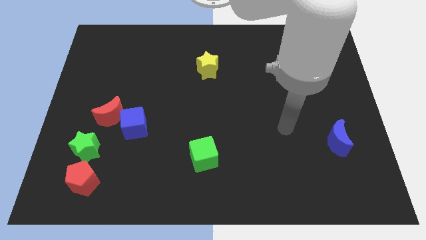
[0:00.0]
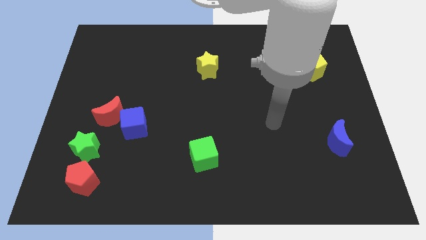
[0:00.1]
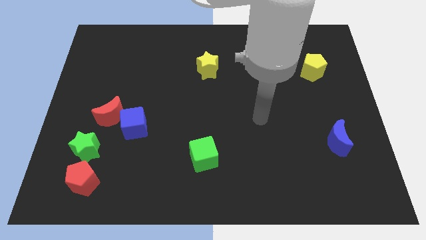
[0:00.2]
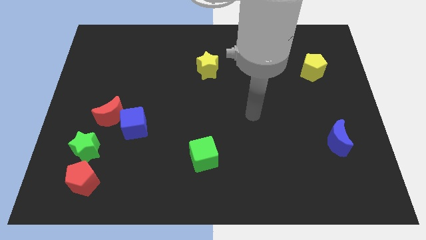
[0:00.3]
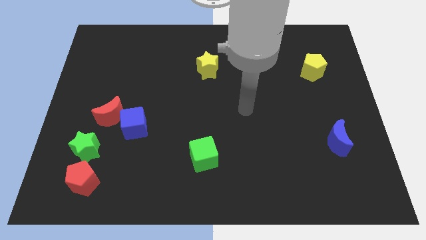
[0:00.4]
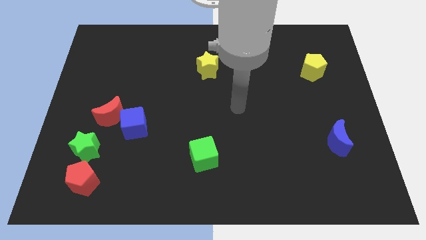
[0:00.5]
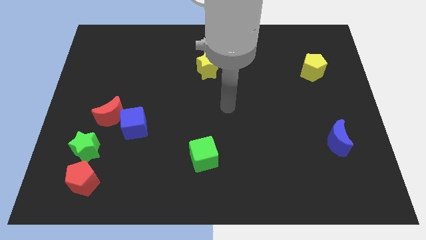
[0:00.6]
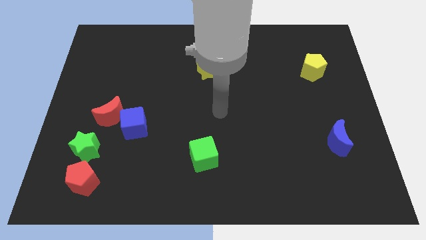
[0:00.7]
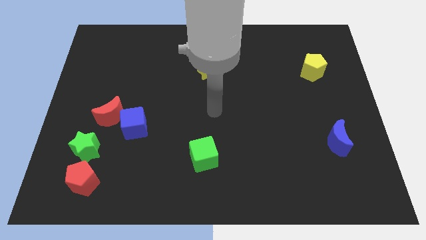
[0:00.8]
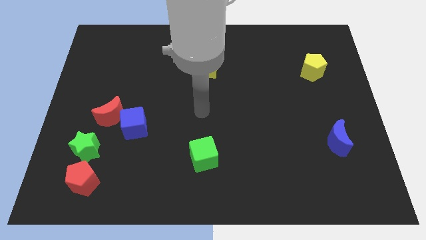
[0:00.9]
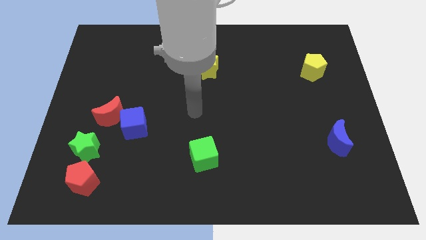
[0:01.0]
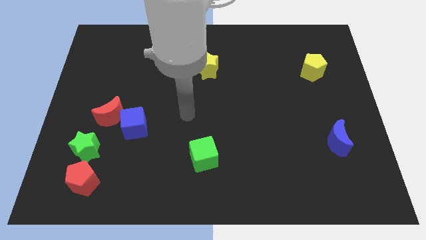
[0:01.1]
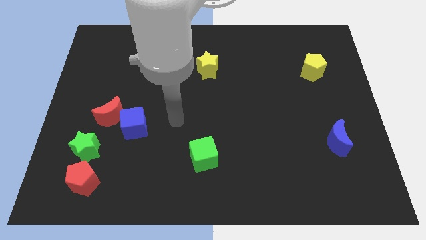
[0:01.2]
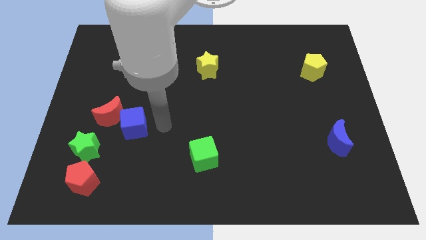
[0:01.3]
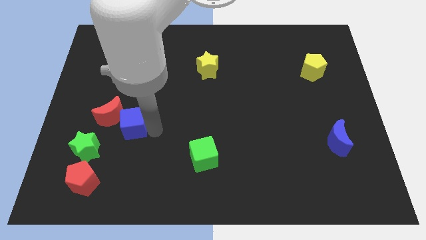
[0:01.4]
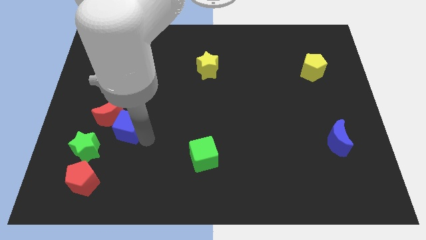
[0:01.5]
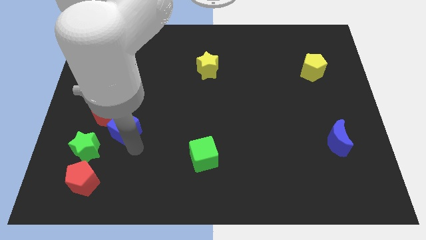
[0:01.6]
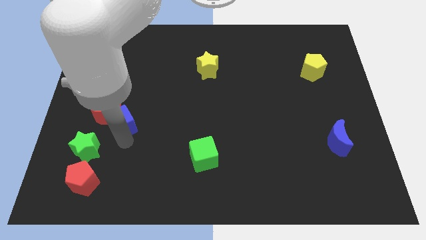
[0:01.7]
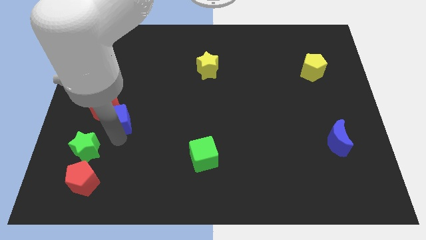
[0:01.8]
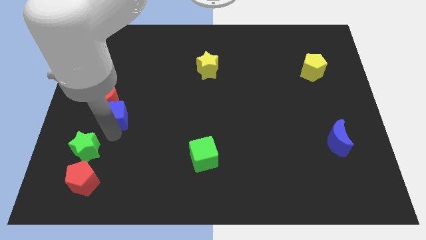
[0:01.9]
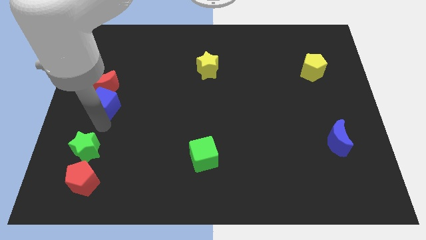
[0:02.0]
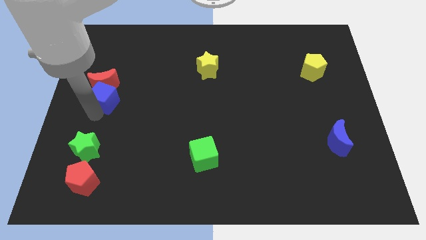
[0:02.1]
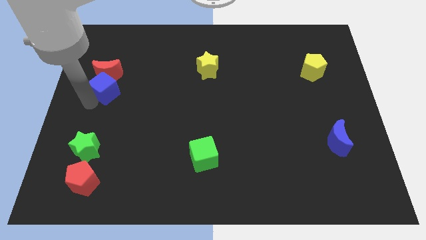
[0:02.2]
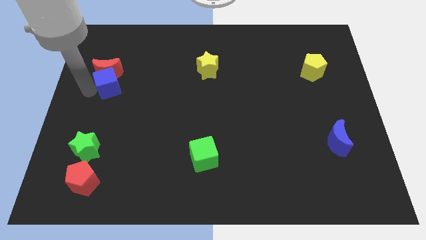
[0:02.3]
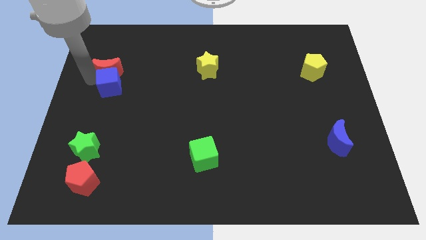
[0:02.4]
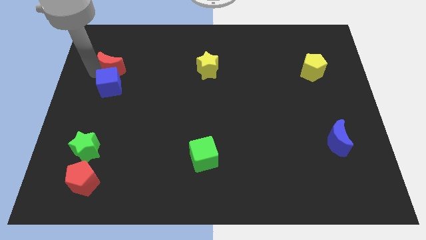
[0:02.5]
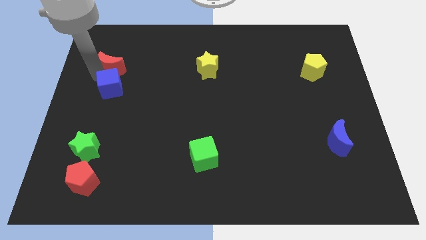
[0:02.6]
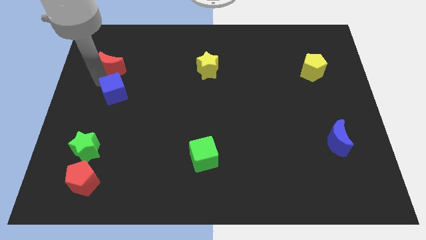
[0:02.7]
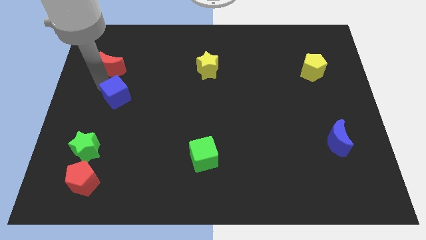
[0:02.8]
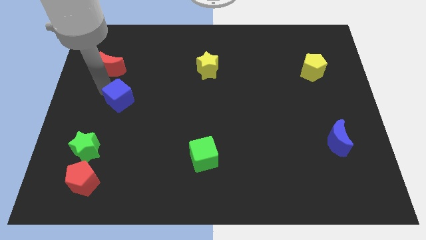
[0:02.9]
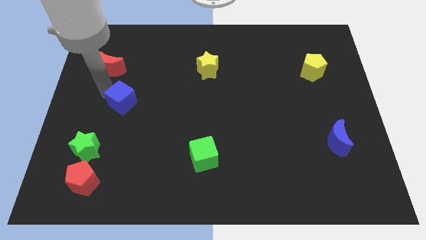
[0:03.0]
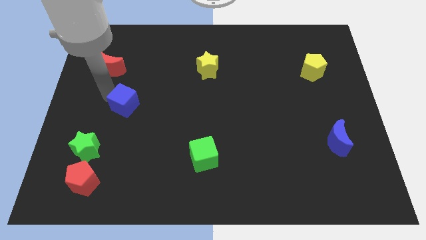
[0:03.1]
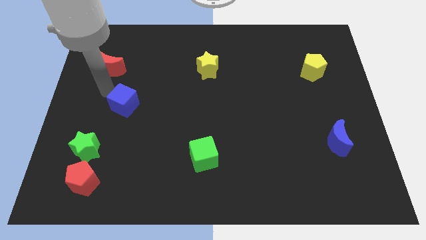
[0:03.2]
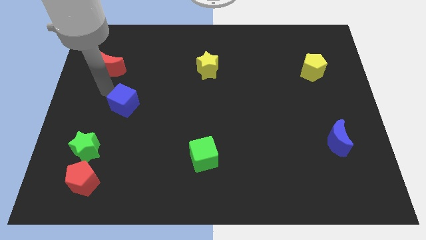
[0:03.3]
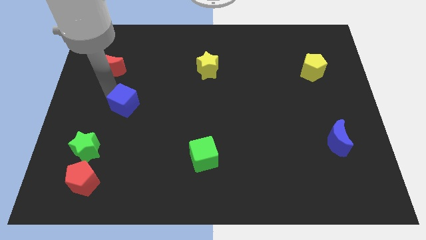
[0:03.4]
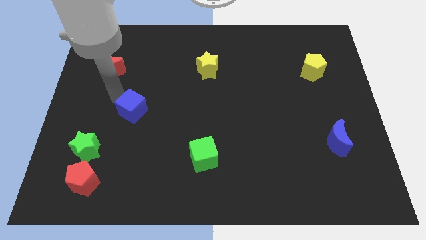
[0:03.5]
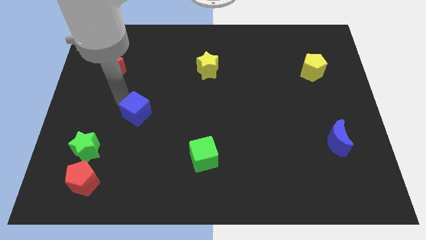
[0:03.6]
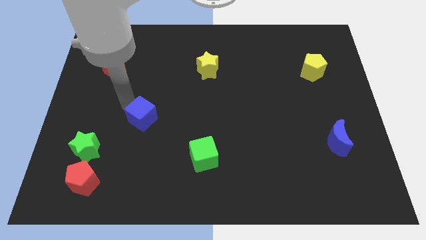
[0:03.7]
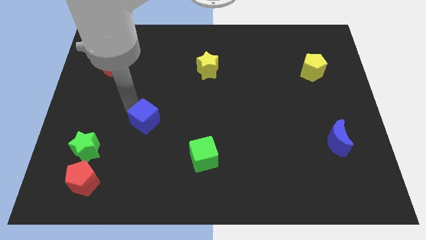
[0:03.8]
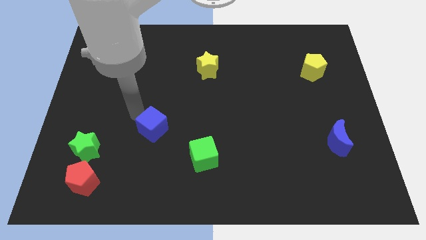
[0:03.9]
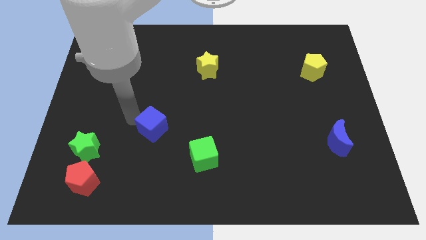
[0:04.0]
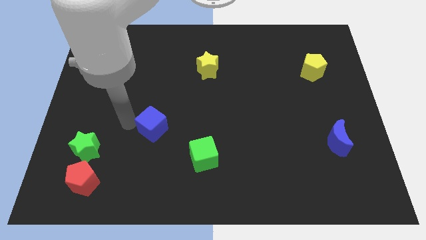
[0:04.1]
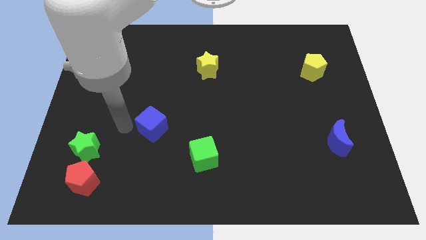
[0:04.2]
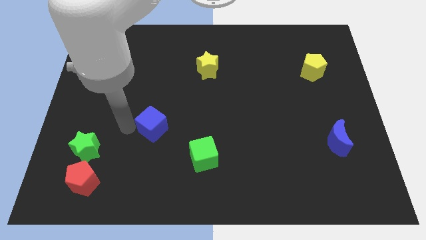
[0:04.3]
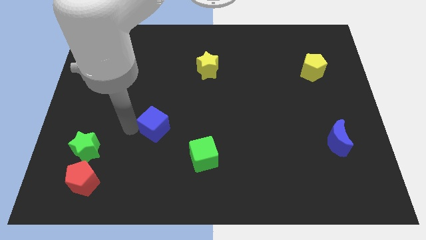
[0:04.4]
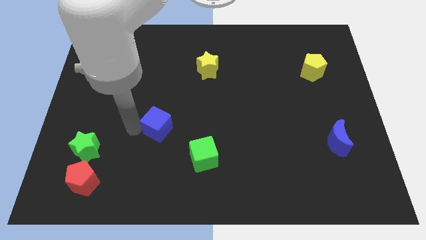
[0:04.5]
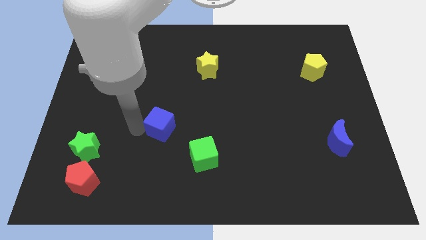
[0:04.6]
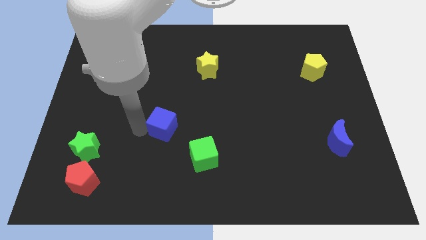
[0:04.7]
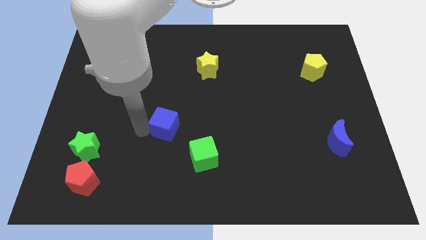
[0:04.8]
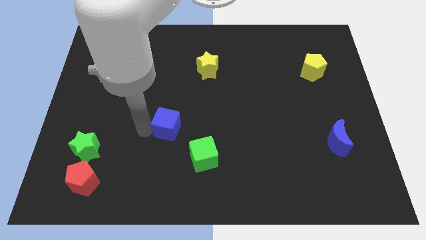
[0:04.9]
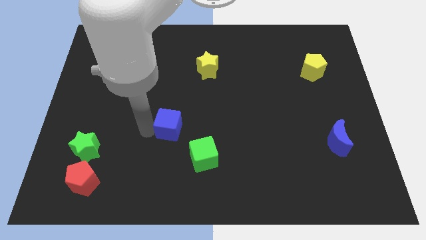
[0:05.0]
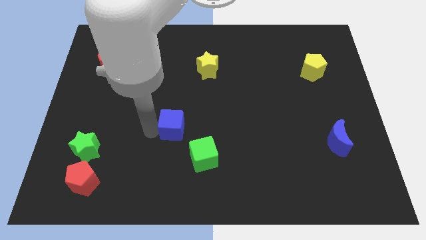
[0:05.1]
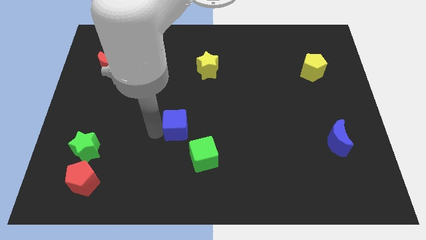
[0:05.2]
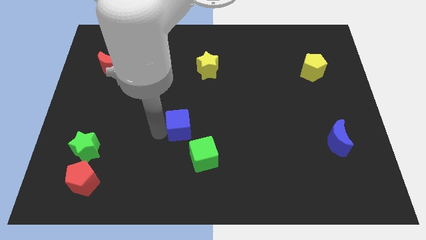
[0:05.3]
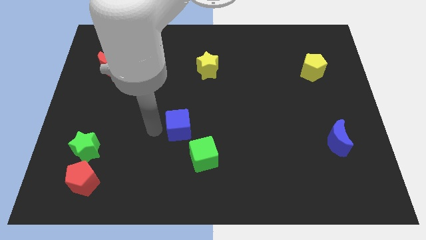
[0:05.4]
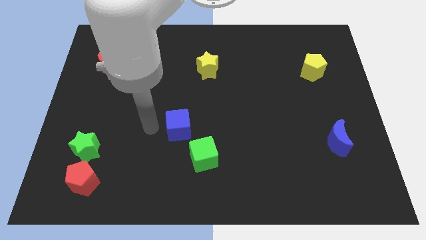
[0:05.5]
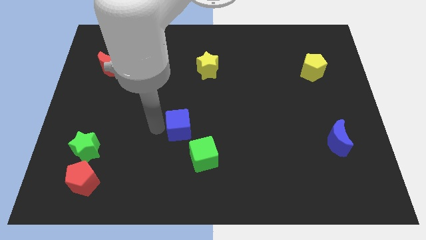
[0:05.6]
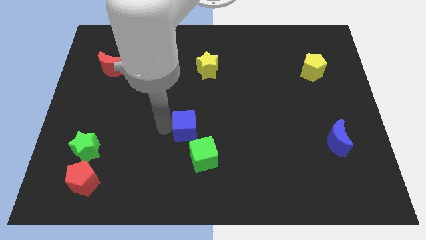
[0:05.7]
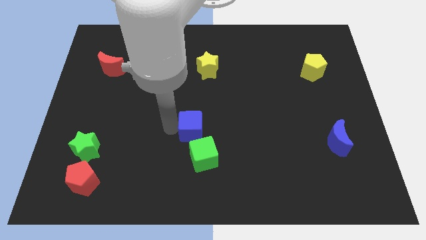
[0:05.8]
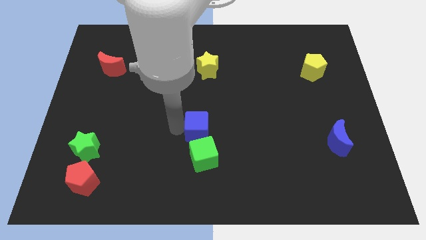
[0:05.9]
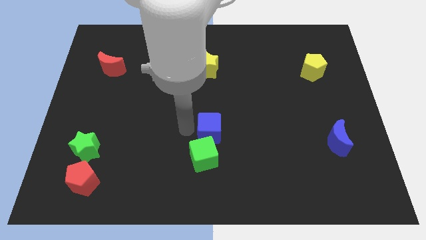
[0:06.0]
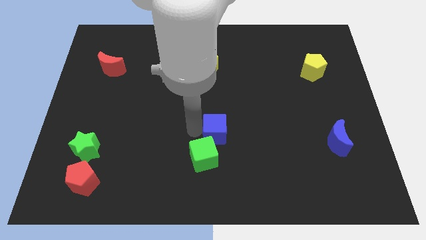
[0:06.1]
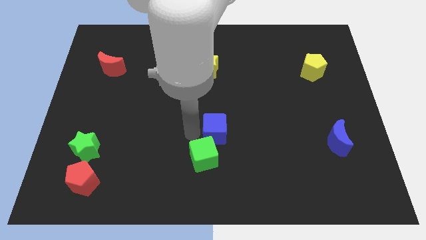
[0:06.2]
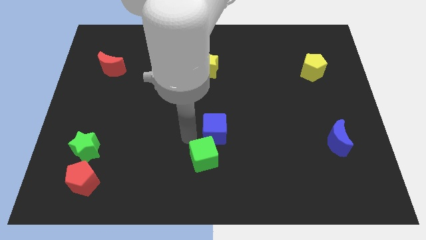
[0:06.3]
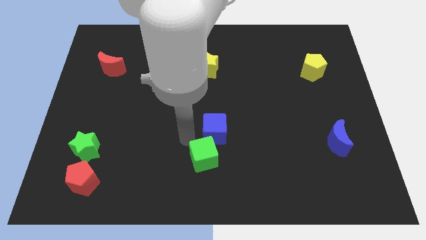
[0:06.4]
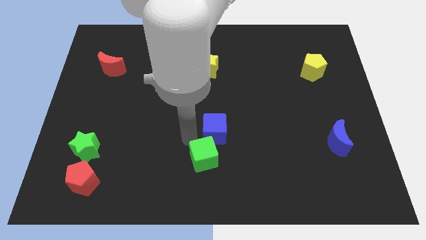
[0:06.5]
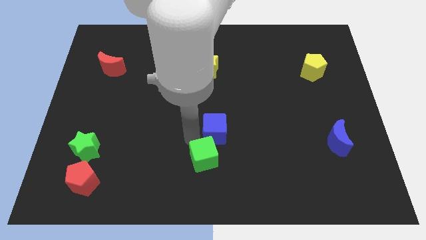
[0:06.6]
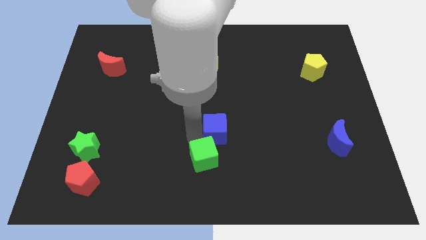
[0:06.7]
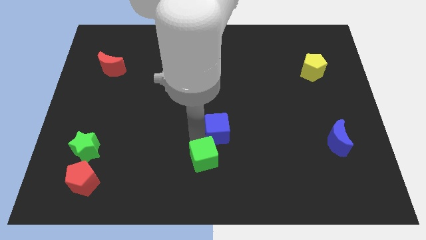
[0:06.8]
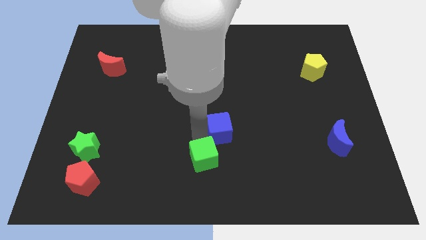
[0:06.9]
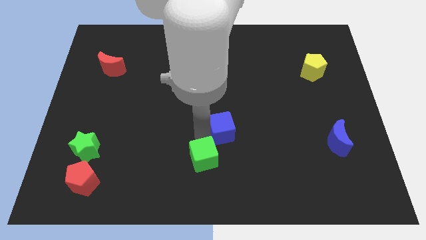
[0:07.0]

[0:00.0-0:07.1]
push the blue cube to the right

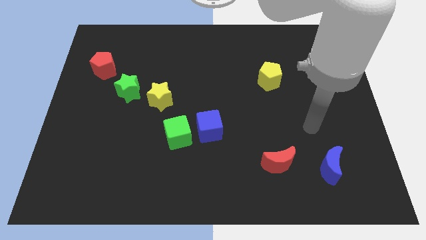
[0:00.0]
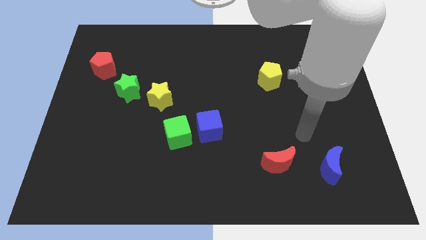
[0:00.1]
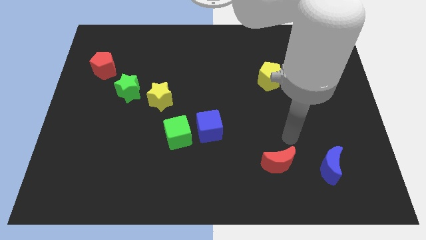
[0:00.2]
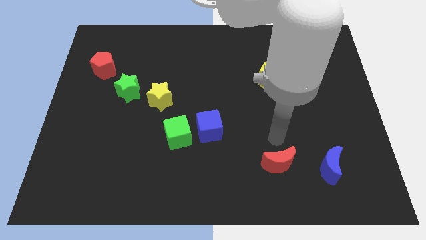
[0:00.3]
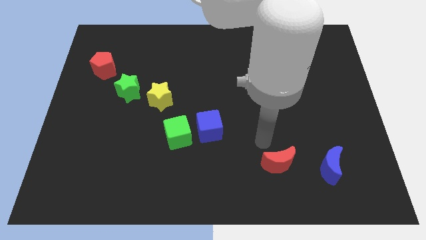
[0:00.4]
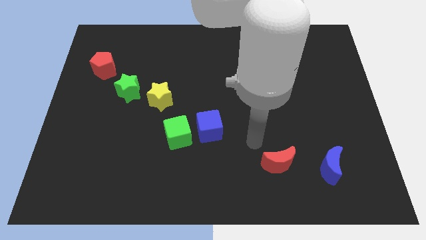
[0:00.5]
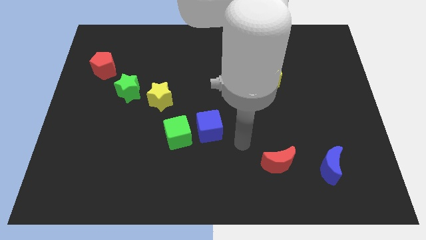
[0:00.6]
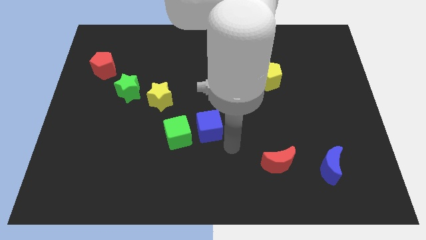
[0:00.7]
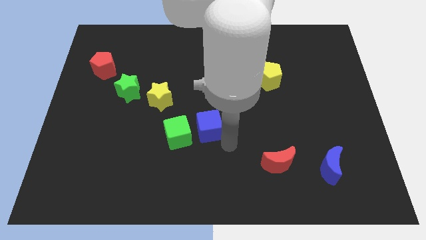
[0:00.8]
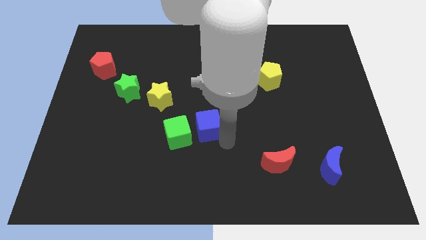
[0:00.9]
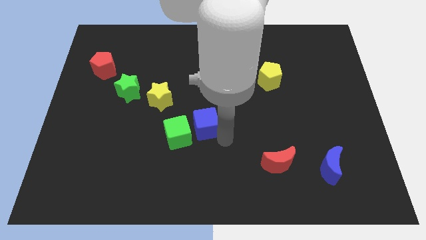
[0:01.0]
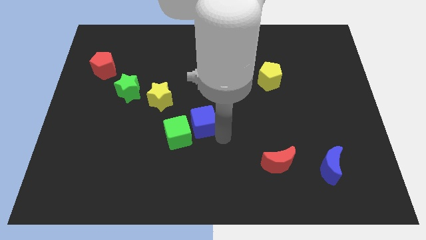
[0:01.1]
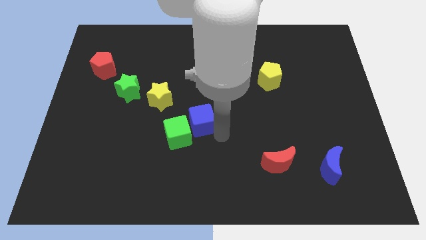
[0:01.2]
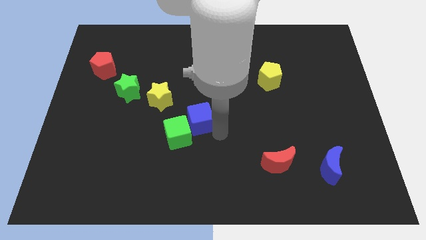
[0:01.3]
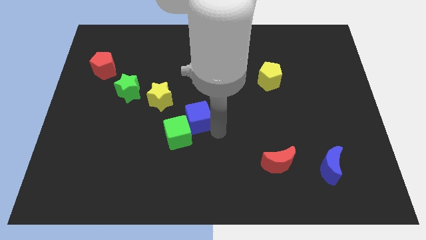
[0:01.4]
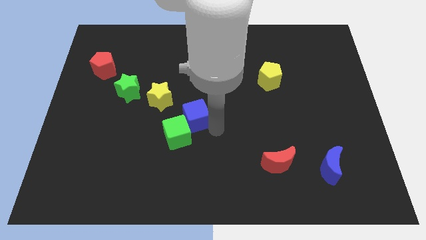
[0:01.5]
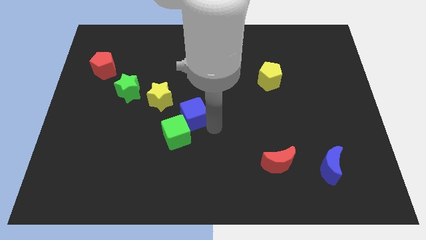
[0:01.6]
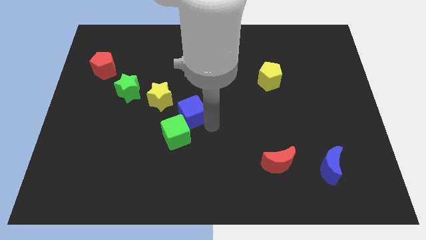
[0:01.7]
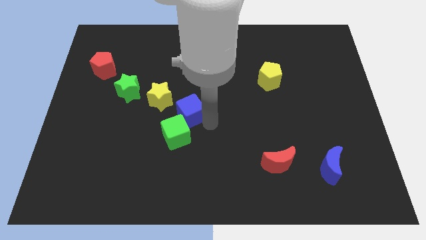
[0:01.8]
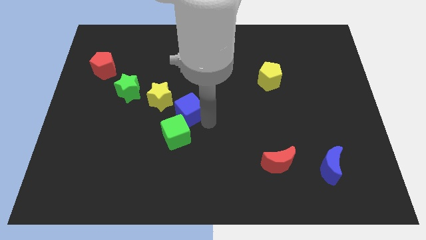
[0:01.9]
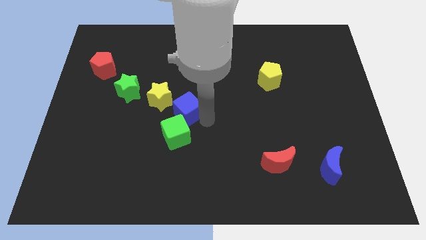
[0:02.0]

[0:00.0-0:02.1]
slightly push the blue cube diagonally up and left
